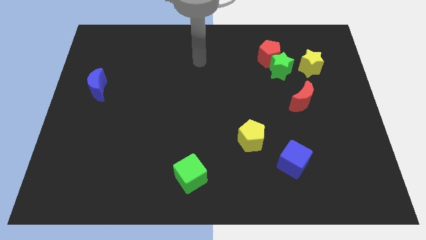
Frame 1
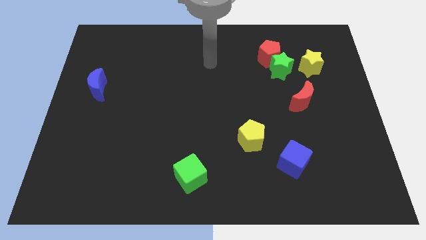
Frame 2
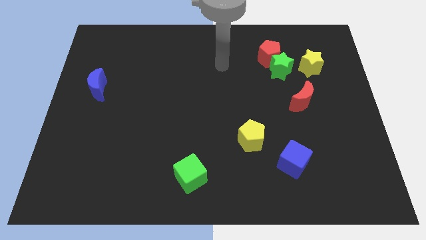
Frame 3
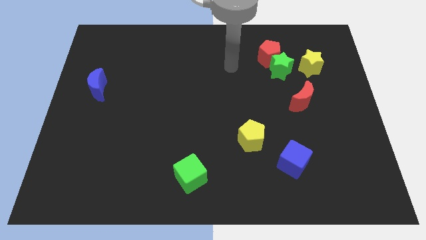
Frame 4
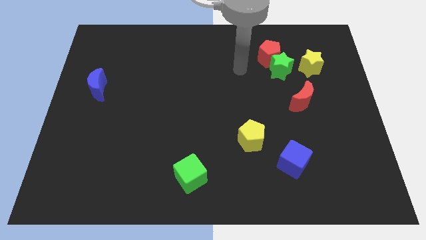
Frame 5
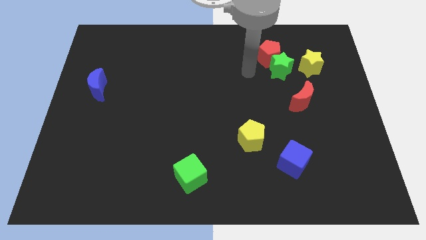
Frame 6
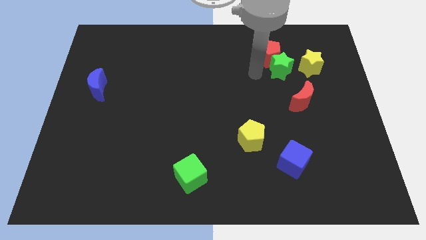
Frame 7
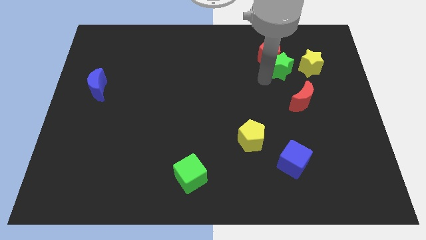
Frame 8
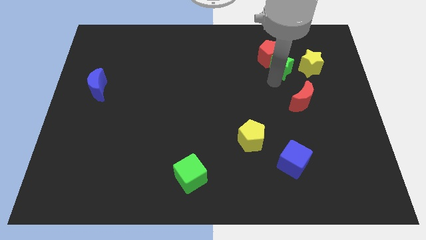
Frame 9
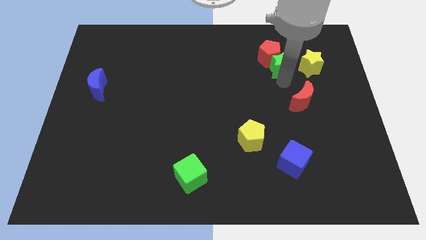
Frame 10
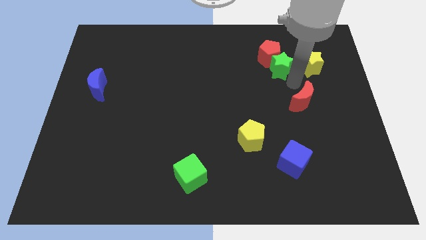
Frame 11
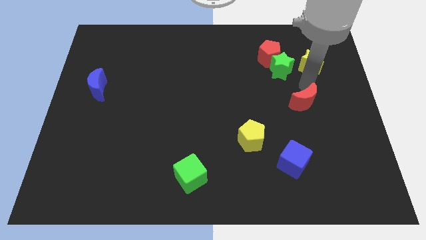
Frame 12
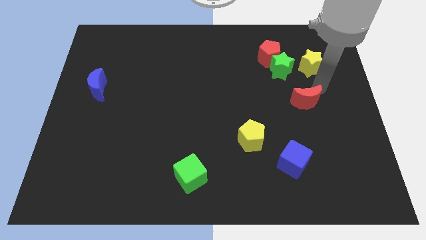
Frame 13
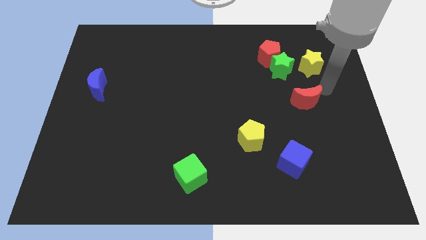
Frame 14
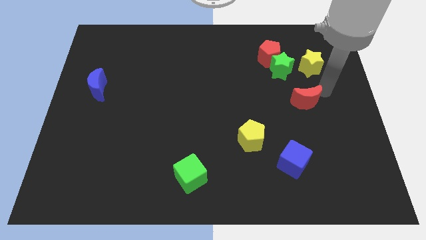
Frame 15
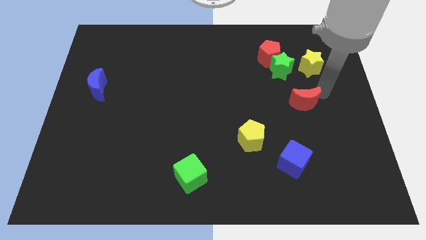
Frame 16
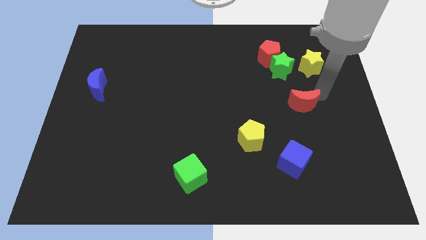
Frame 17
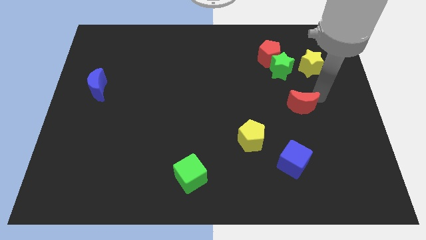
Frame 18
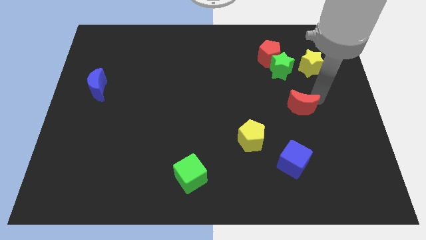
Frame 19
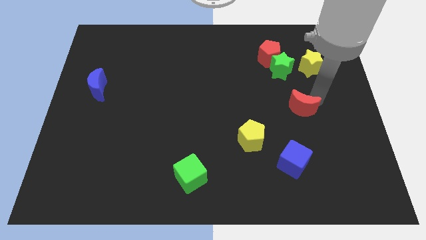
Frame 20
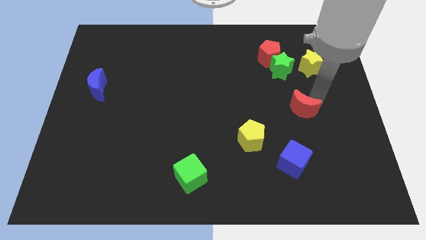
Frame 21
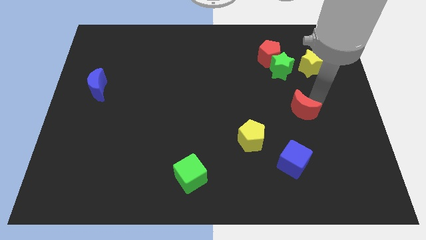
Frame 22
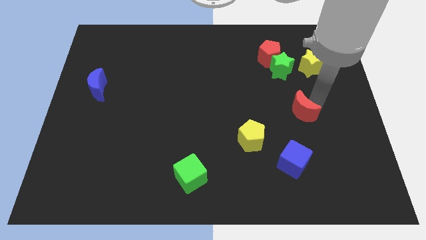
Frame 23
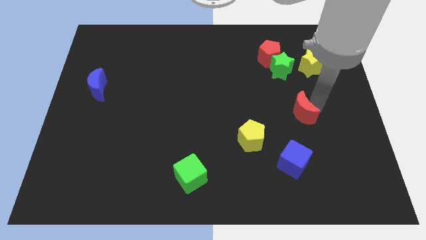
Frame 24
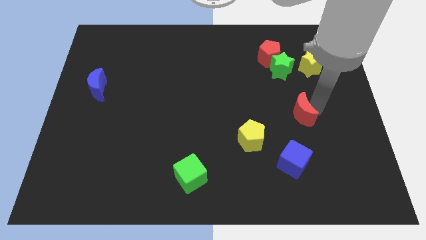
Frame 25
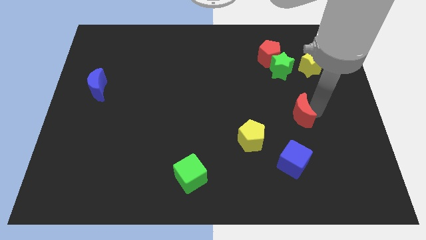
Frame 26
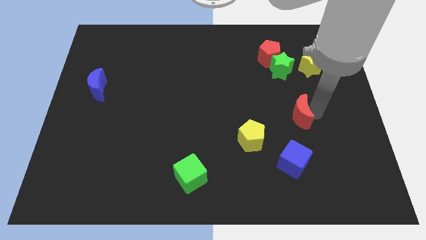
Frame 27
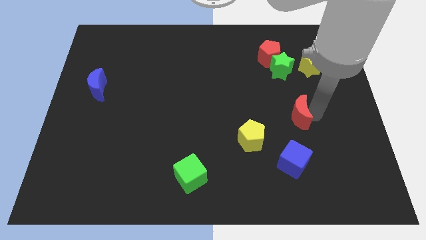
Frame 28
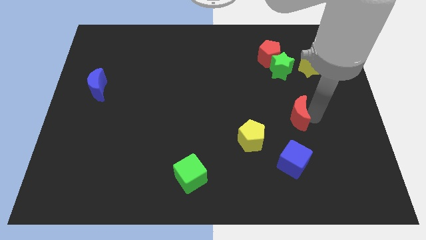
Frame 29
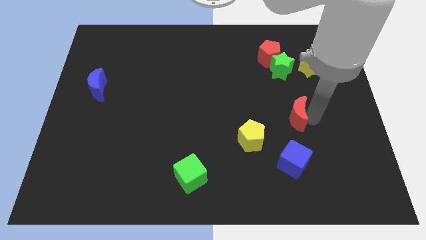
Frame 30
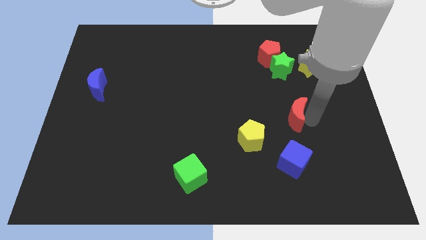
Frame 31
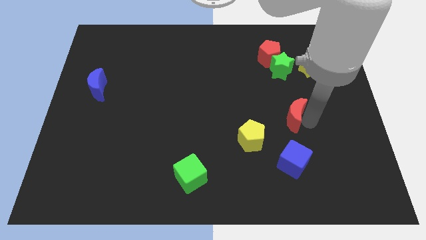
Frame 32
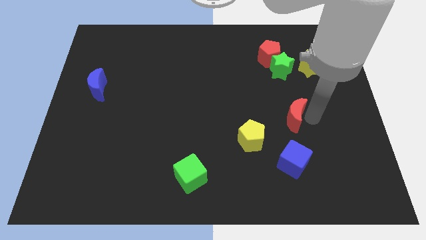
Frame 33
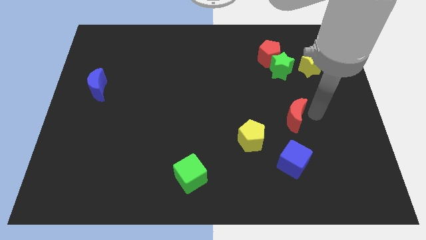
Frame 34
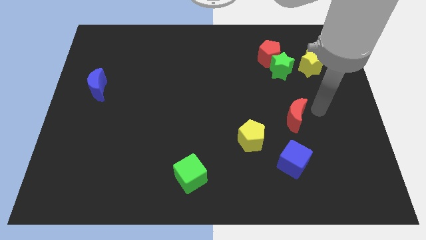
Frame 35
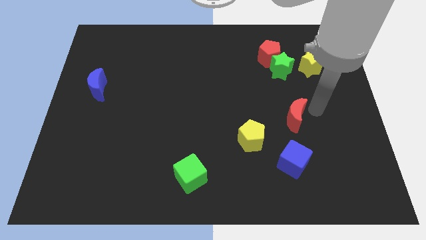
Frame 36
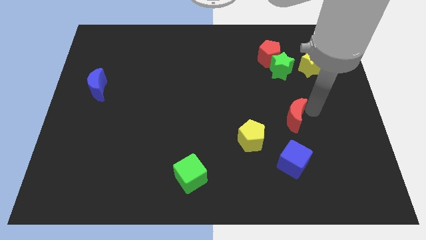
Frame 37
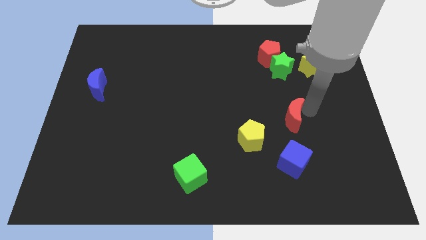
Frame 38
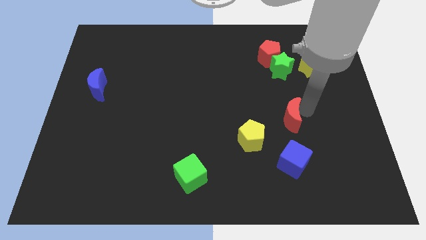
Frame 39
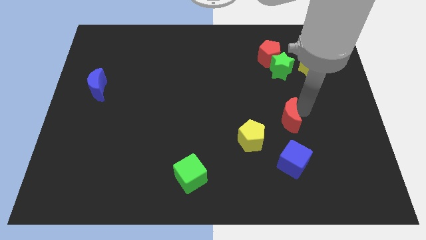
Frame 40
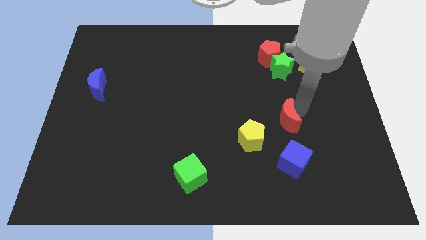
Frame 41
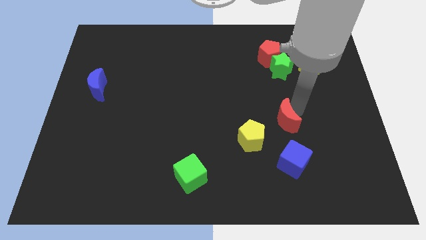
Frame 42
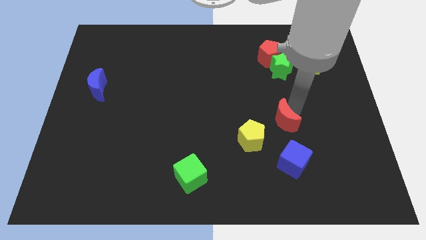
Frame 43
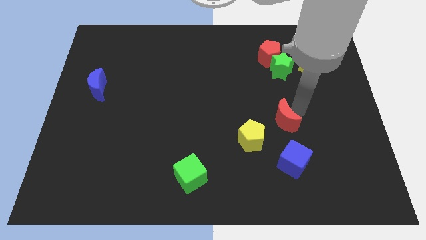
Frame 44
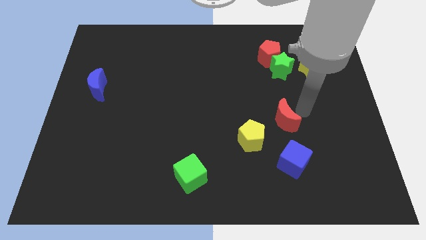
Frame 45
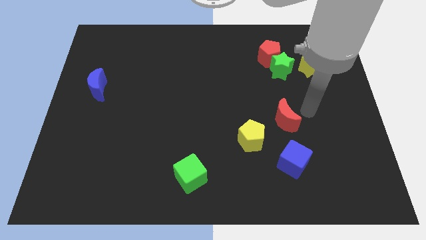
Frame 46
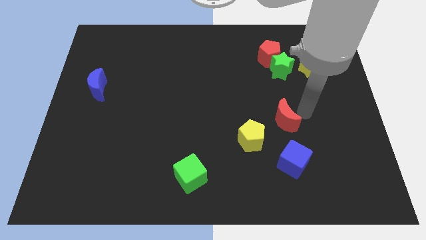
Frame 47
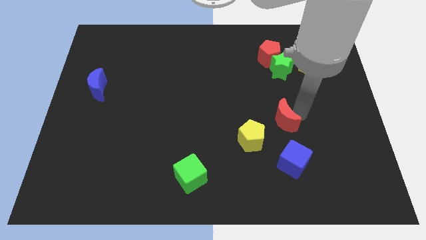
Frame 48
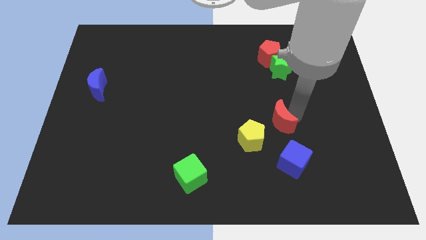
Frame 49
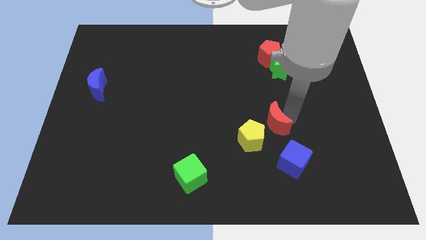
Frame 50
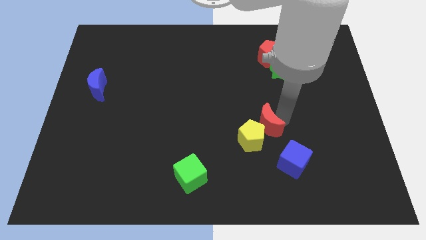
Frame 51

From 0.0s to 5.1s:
put the red moon close to the yellow pentagon

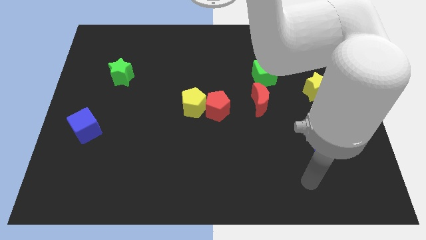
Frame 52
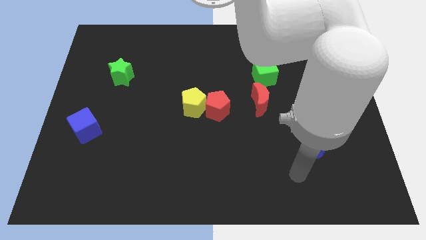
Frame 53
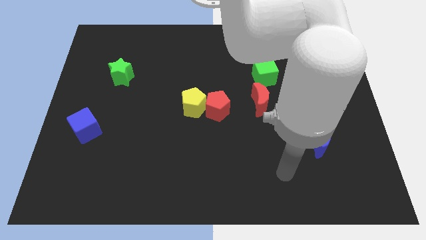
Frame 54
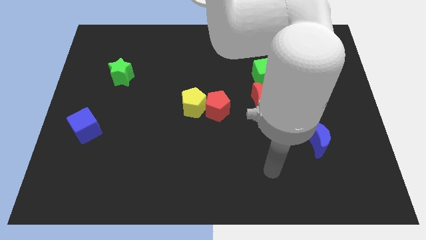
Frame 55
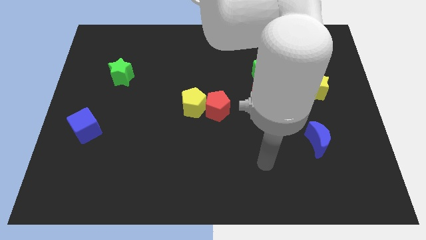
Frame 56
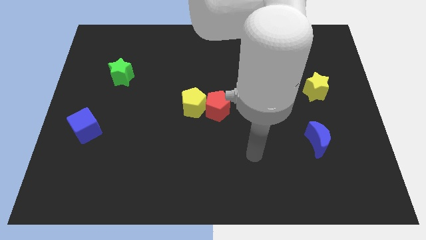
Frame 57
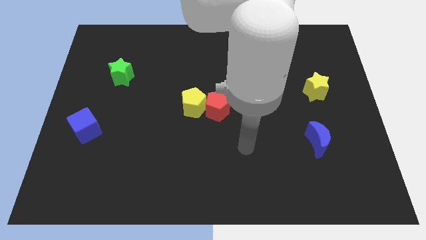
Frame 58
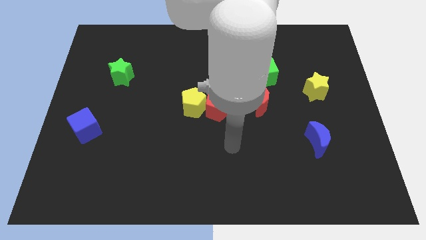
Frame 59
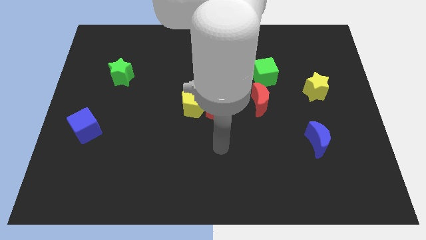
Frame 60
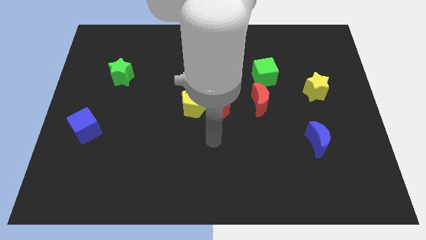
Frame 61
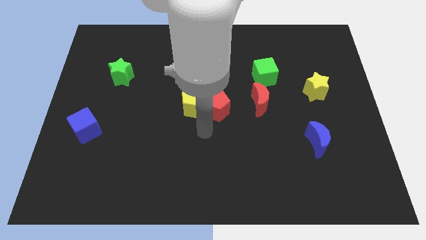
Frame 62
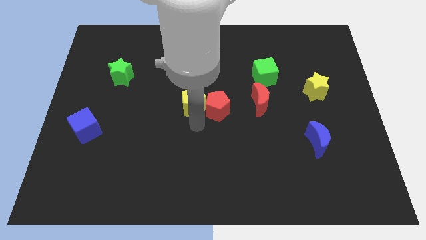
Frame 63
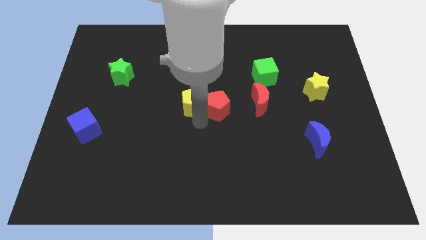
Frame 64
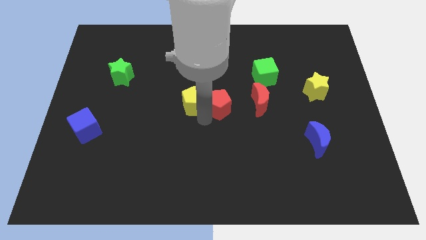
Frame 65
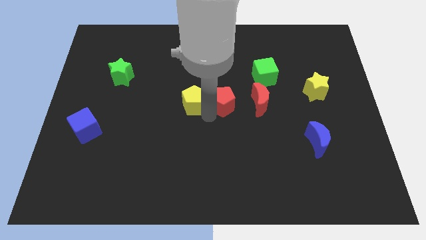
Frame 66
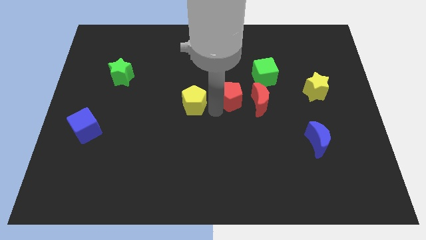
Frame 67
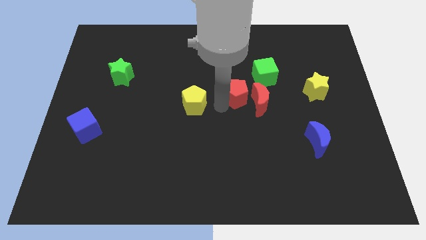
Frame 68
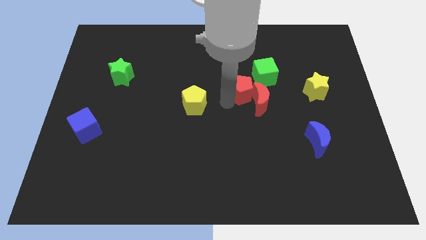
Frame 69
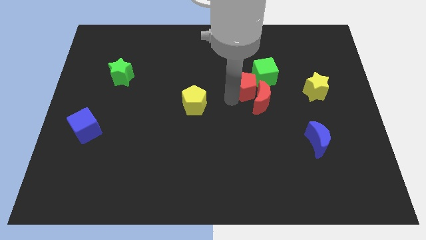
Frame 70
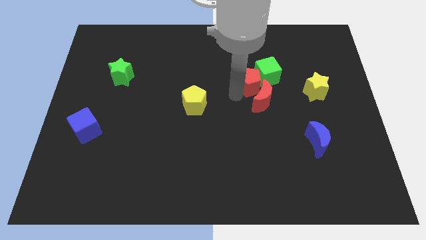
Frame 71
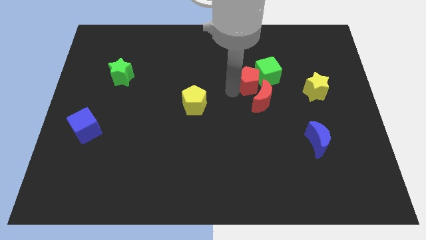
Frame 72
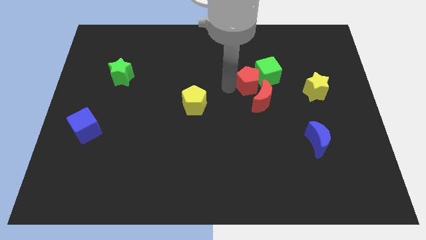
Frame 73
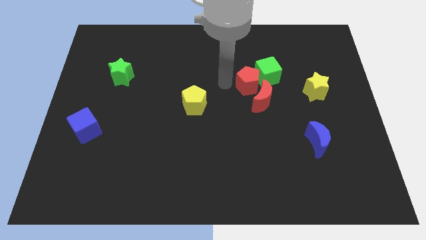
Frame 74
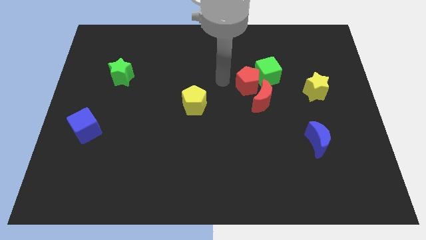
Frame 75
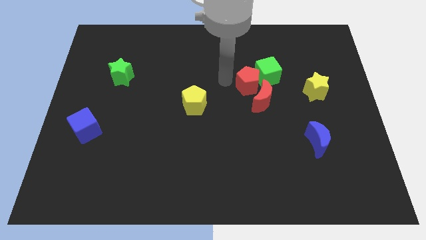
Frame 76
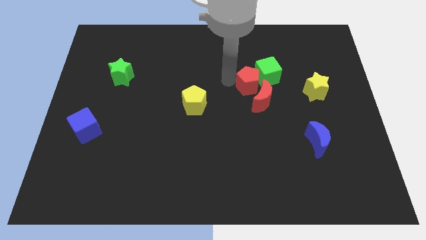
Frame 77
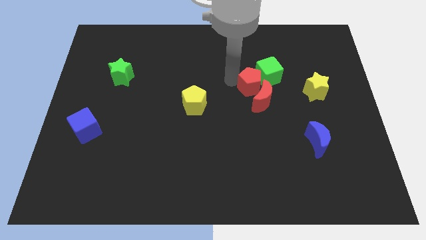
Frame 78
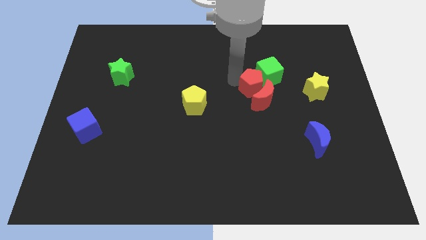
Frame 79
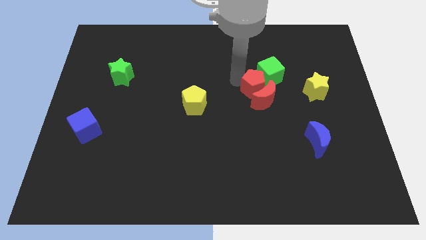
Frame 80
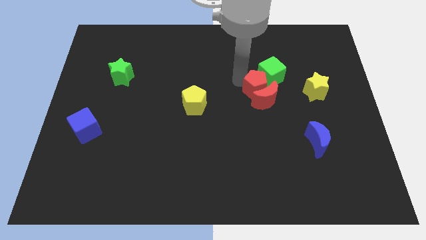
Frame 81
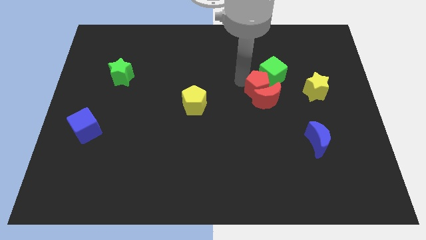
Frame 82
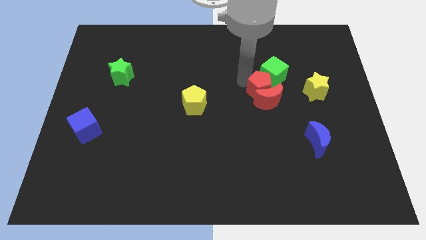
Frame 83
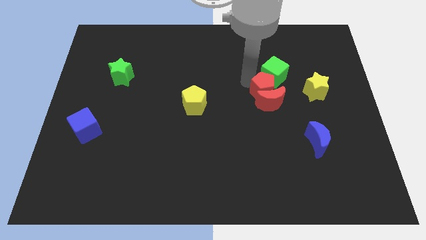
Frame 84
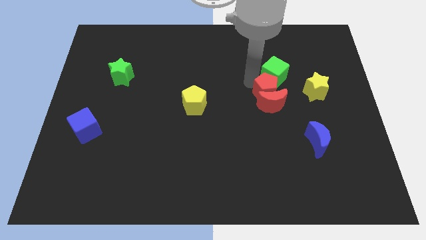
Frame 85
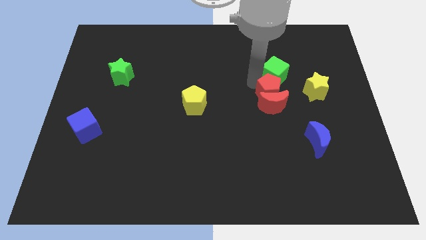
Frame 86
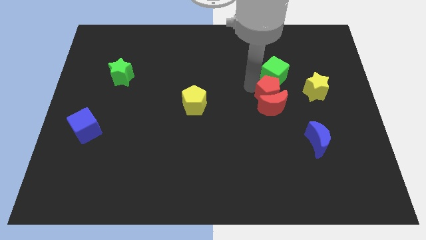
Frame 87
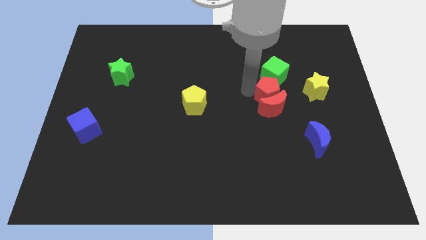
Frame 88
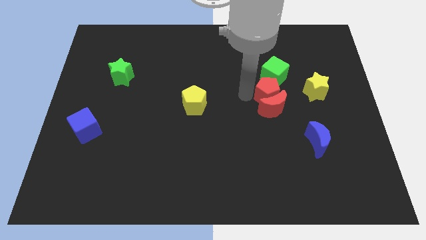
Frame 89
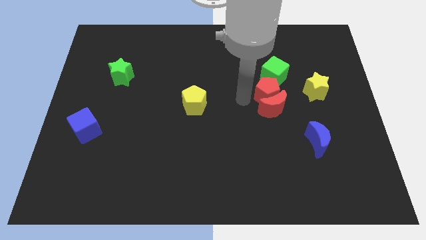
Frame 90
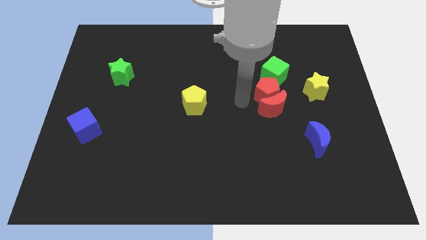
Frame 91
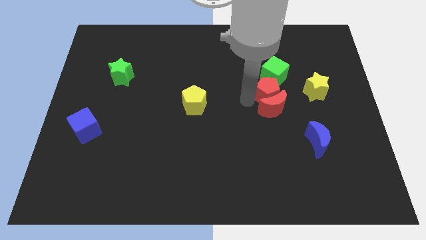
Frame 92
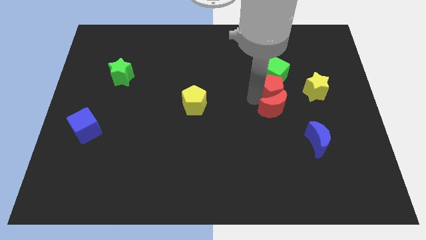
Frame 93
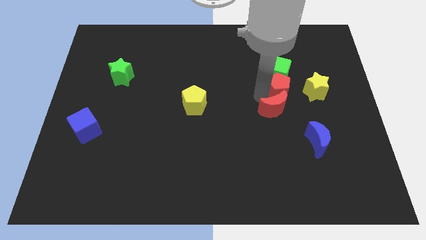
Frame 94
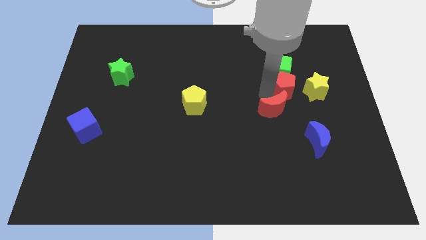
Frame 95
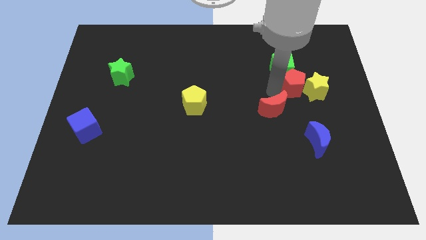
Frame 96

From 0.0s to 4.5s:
move the red pentagon next to the yellow star
